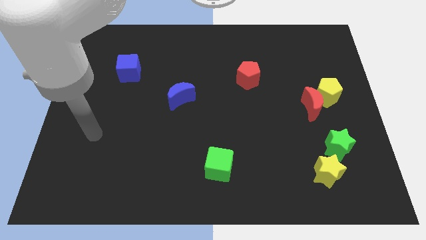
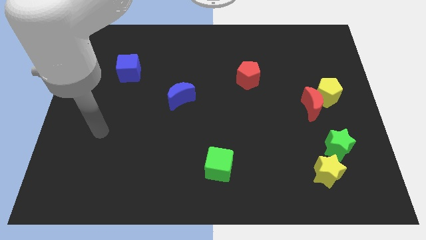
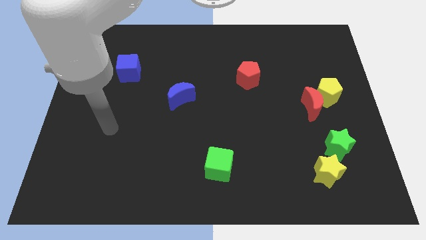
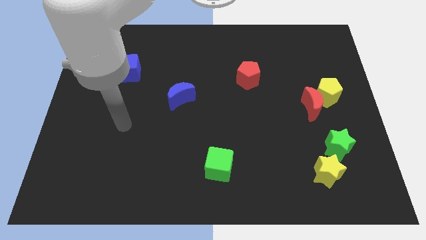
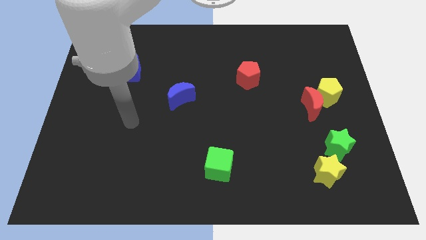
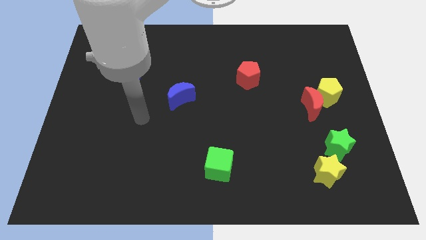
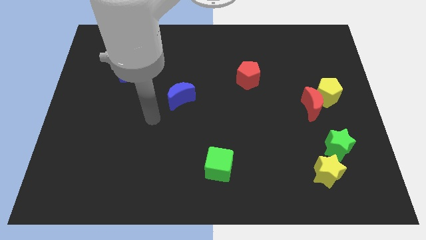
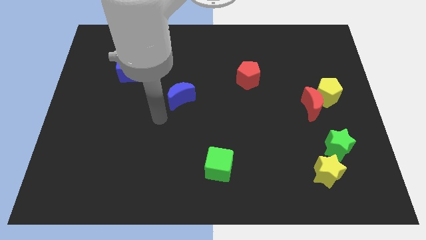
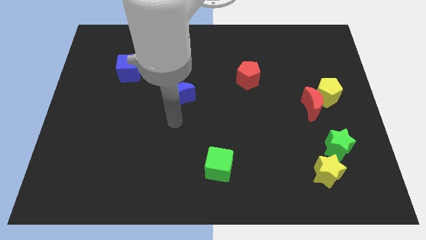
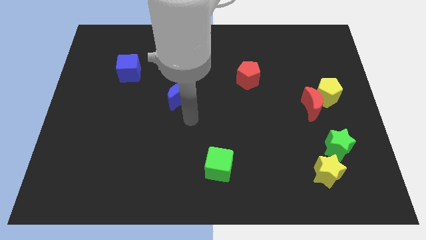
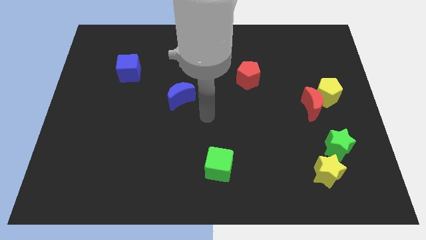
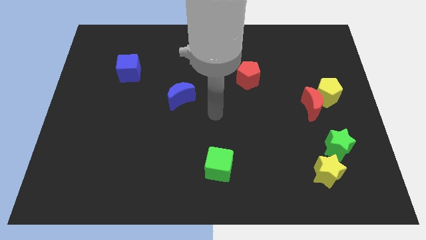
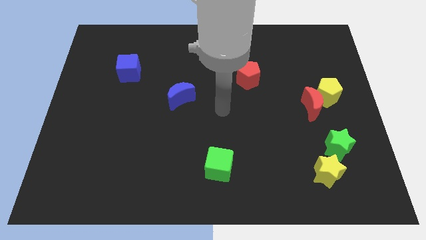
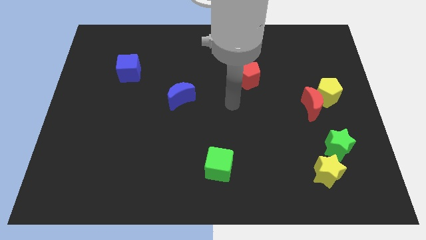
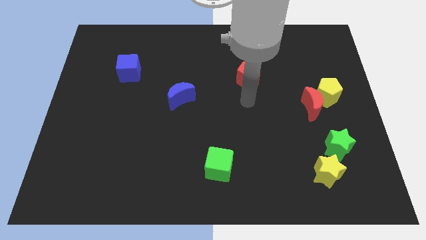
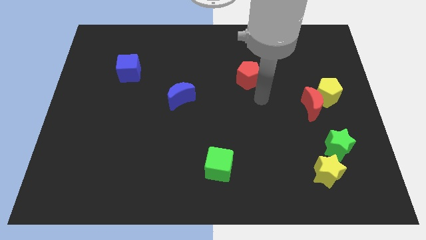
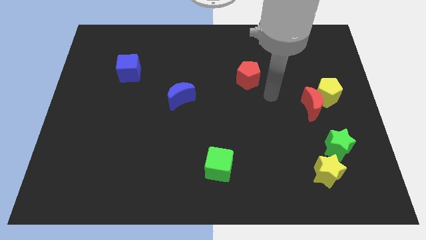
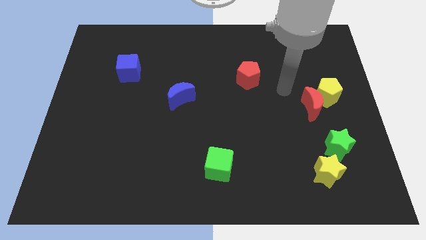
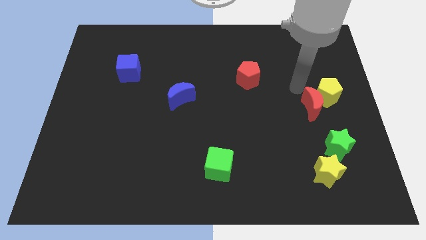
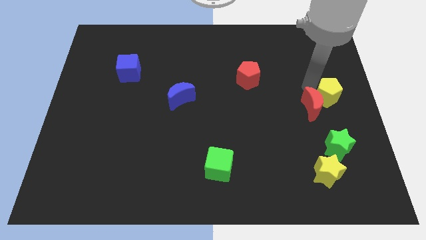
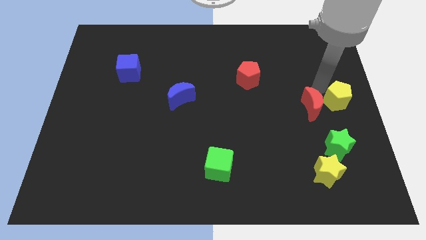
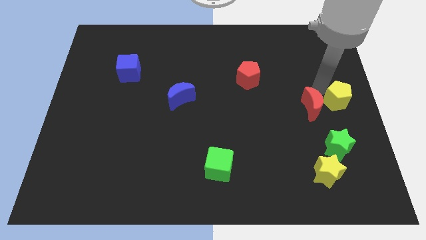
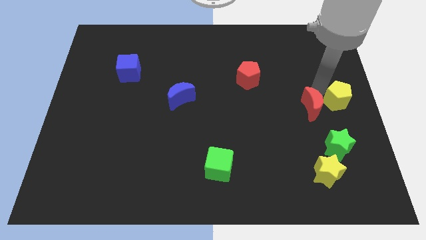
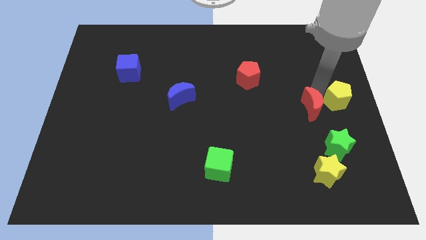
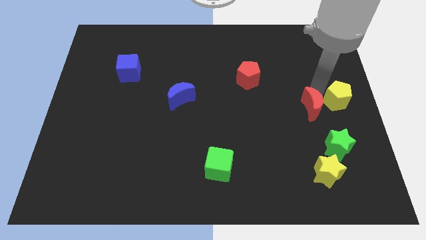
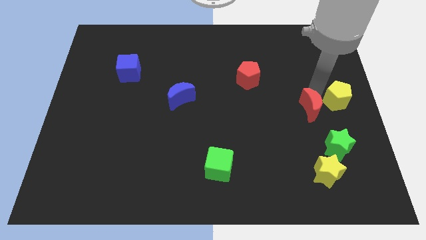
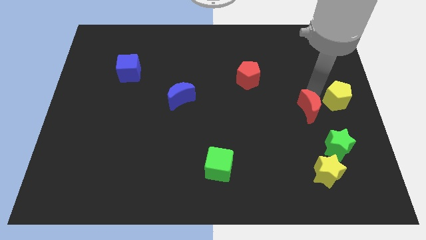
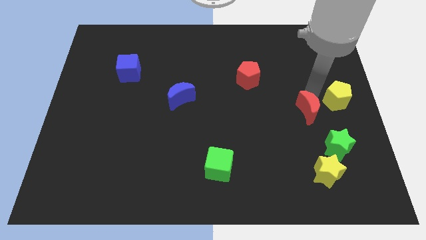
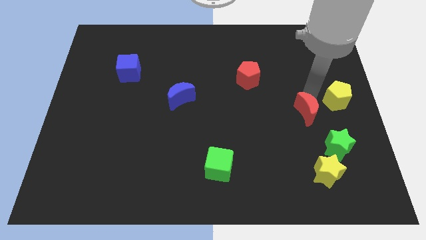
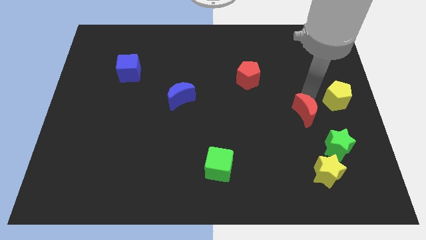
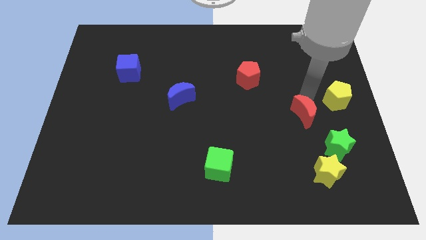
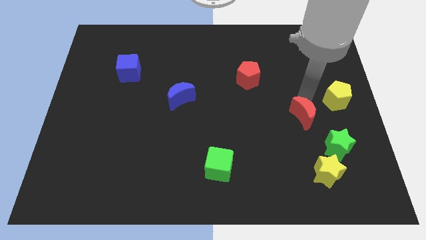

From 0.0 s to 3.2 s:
separate the red moon from the yellow pentagon

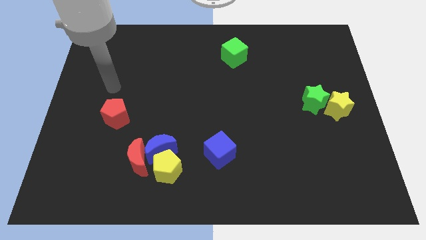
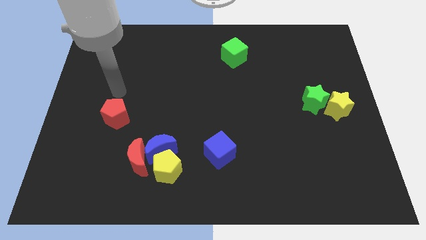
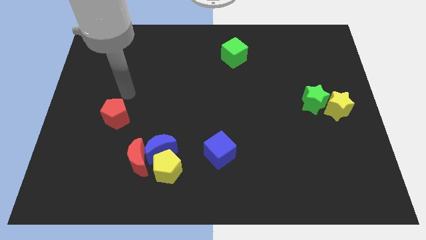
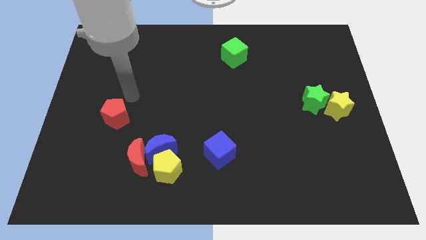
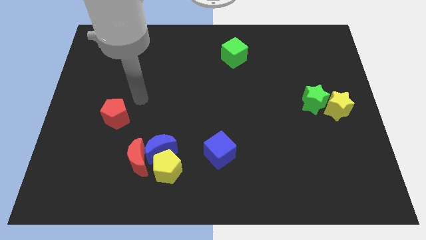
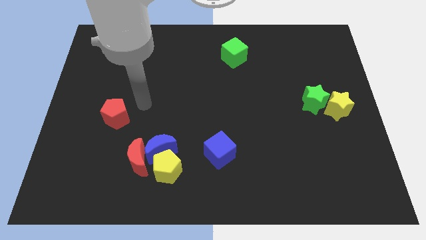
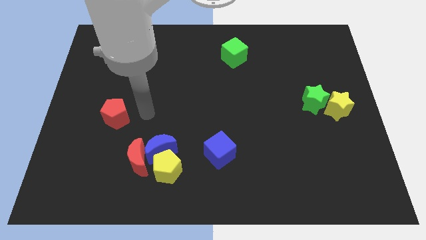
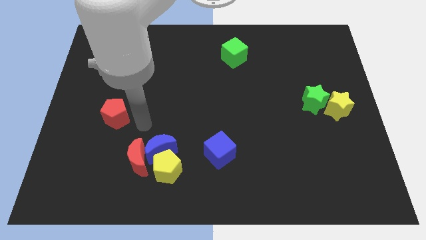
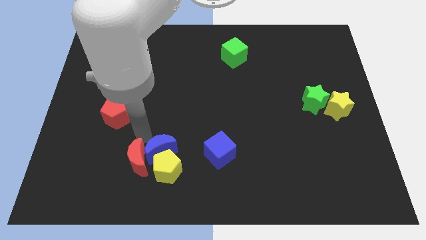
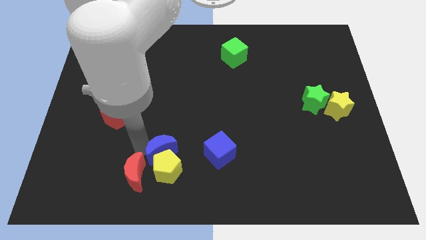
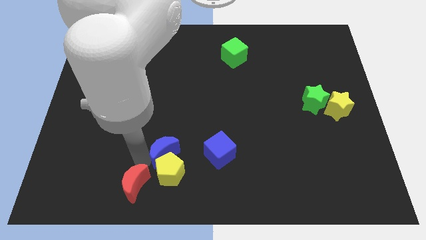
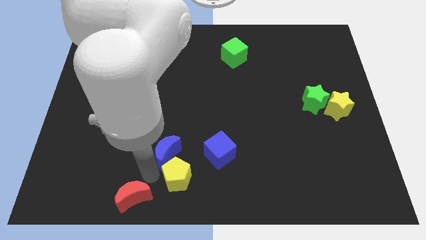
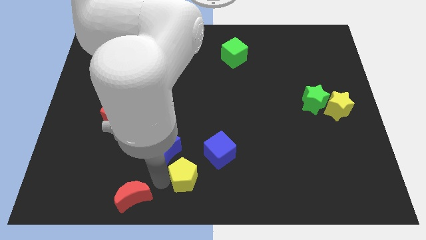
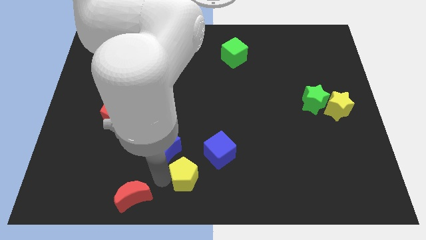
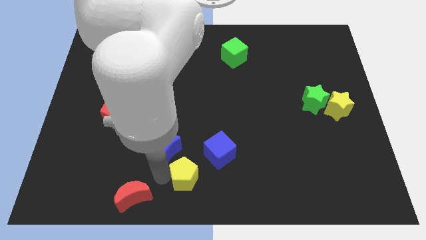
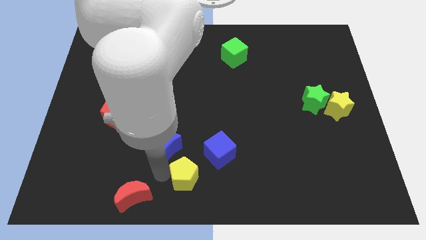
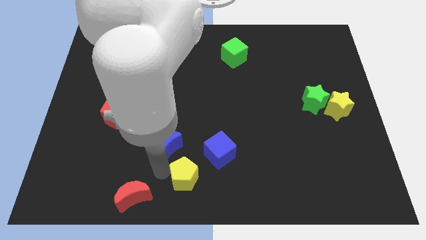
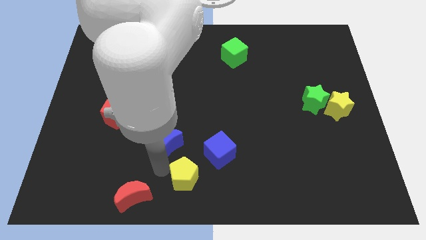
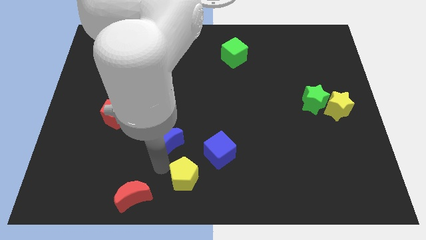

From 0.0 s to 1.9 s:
move the blue moon away from the yellow pentagon and red moon

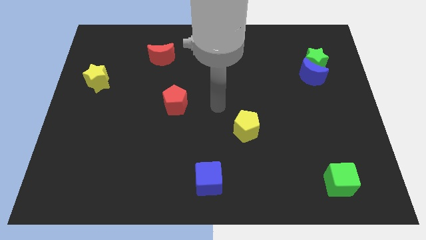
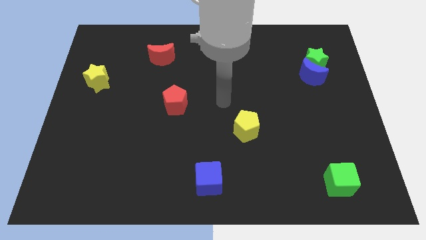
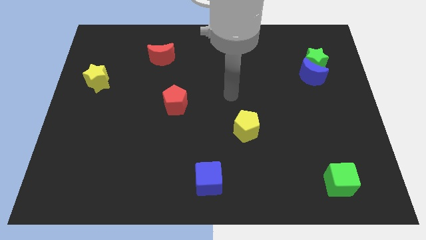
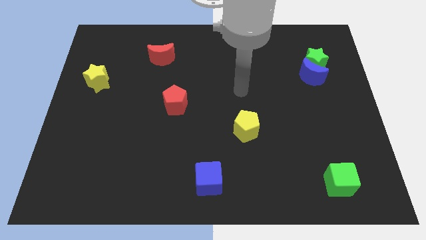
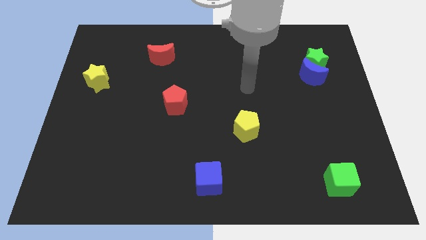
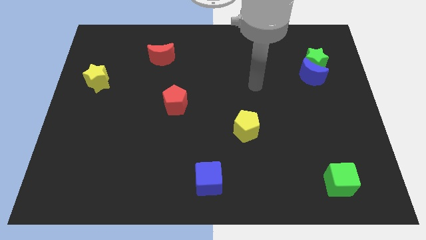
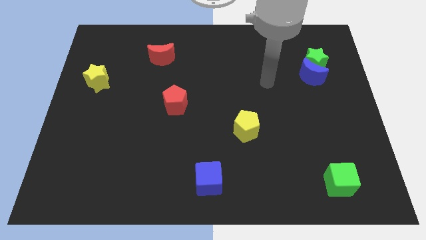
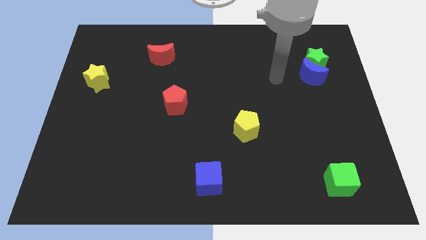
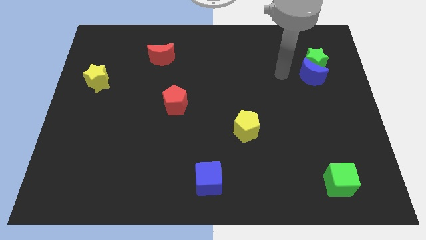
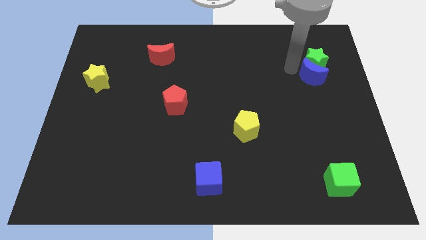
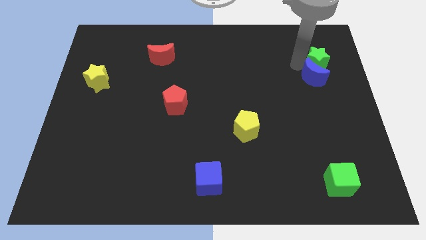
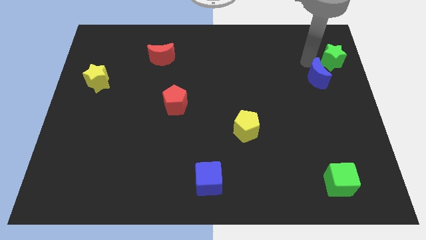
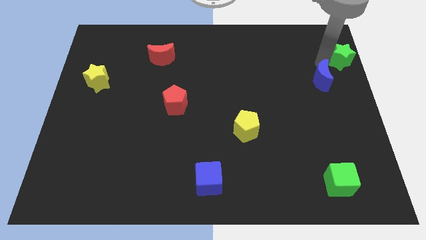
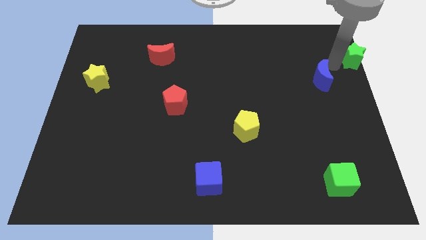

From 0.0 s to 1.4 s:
move the blue moon away from the green star

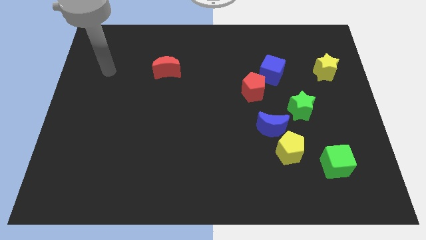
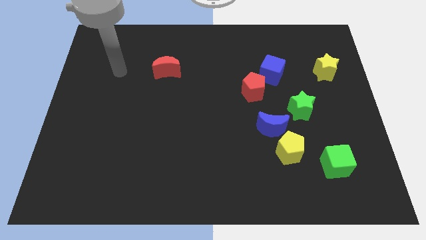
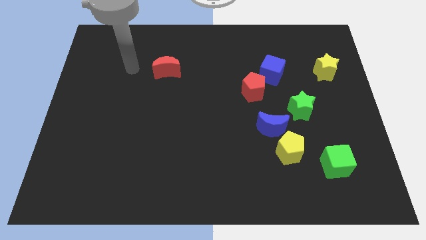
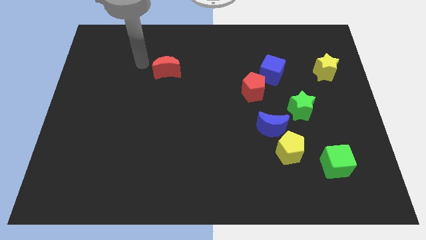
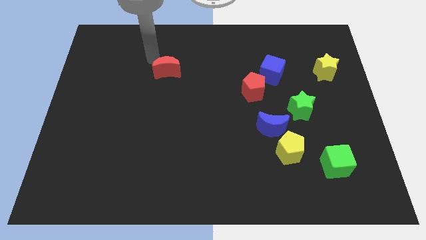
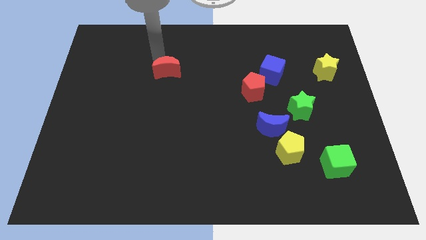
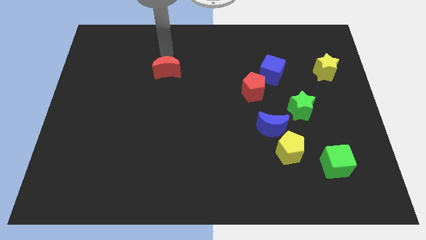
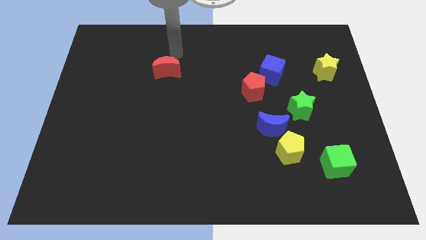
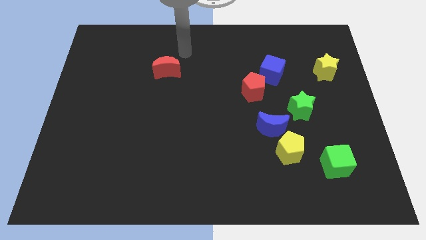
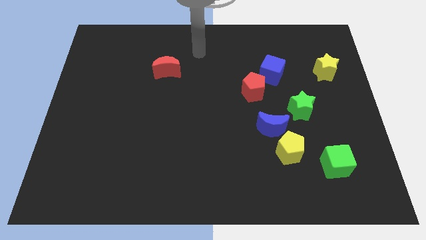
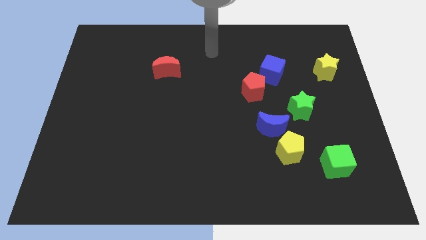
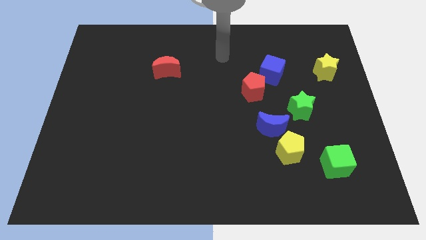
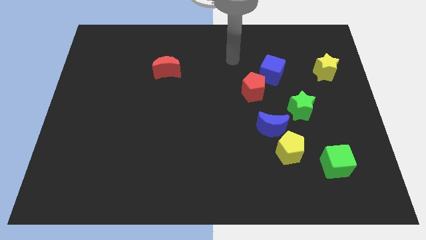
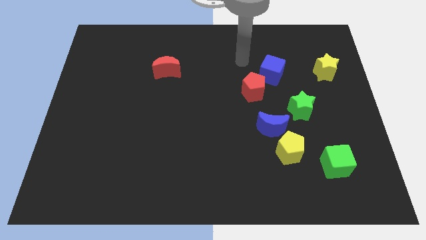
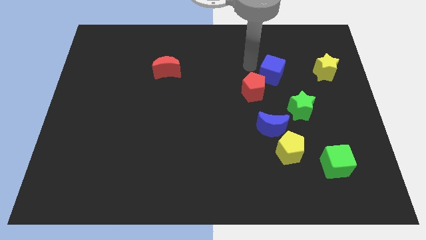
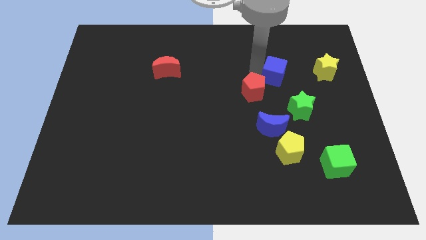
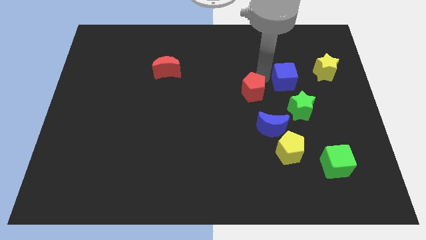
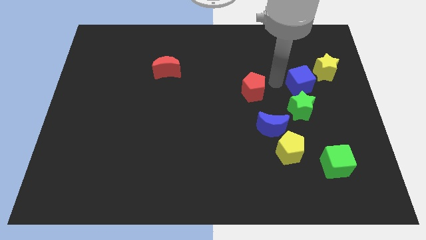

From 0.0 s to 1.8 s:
separate the red pentagon from the blue cube

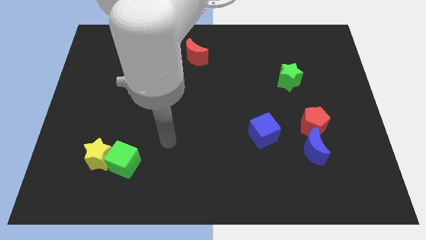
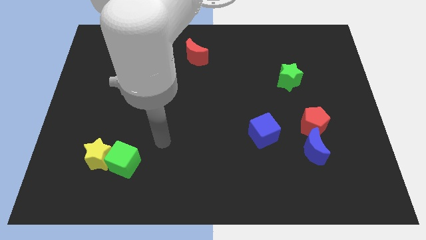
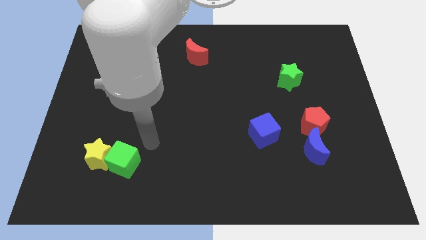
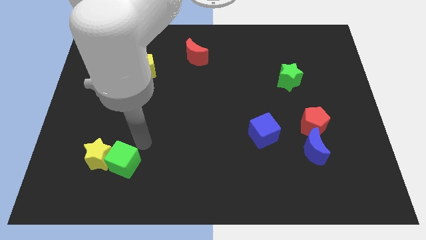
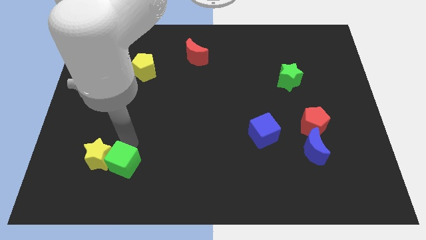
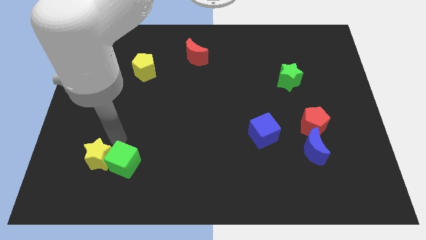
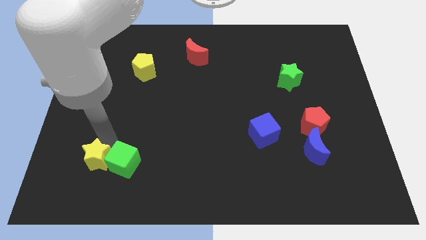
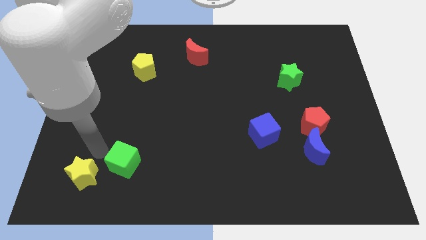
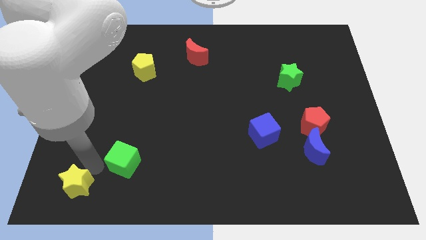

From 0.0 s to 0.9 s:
separate the green cube from the yellow star

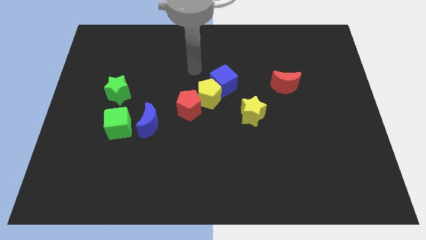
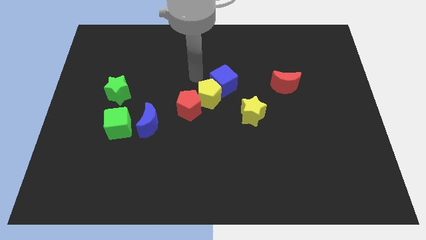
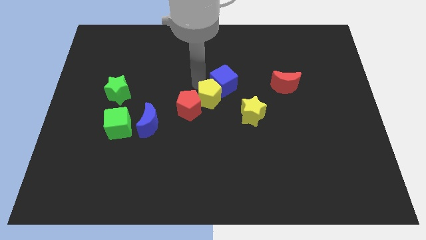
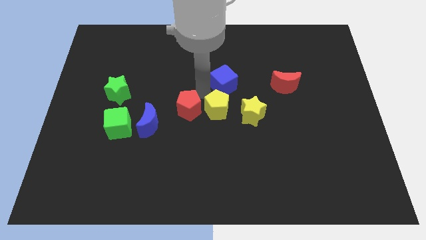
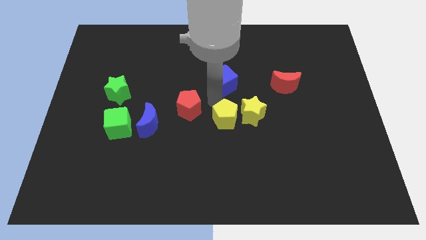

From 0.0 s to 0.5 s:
separate the blue cube from the yellow pentagon
